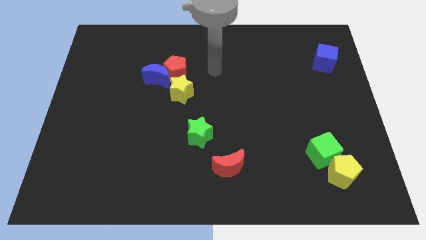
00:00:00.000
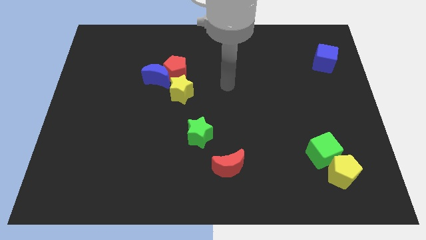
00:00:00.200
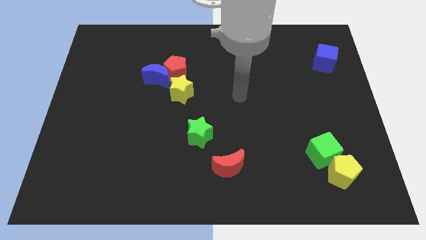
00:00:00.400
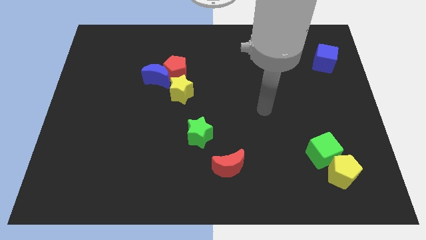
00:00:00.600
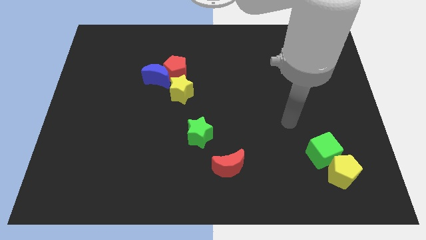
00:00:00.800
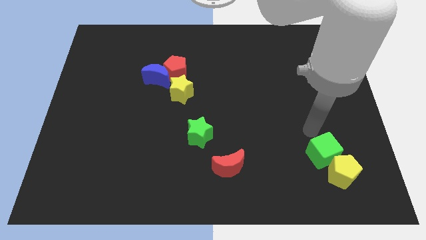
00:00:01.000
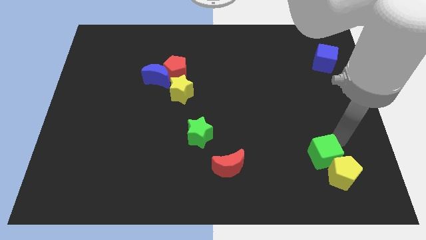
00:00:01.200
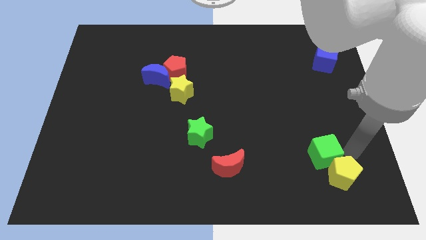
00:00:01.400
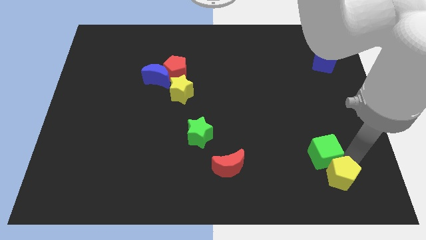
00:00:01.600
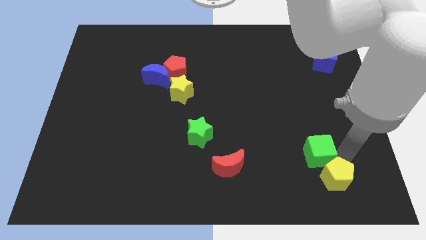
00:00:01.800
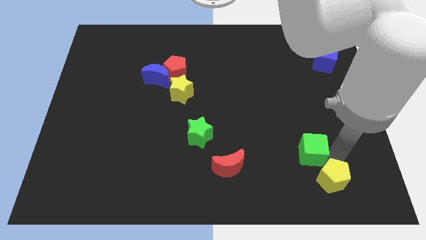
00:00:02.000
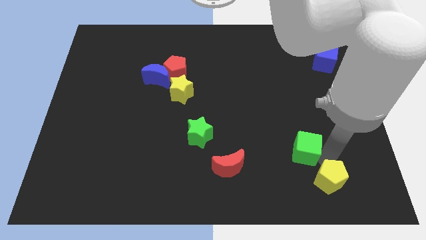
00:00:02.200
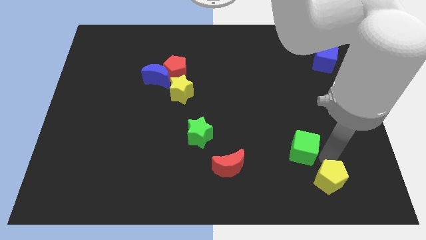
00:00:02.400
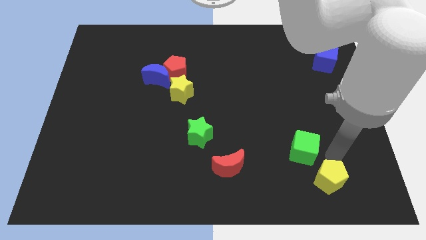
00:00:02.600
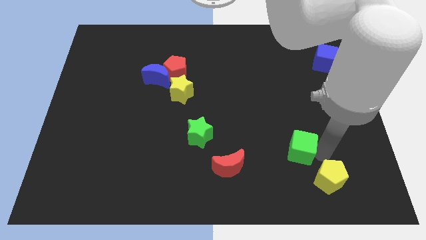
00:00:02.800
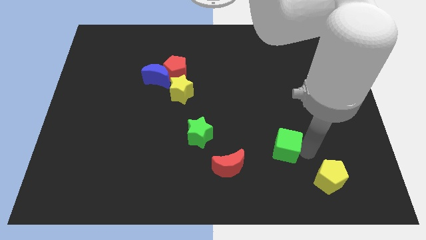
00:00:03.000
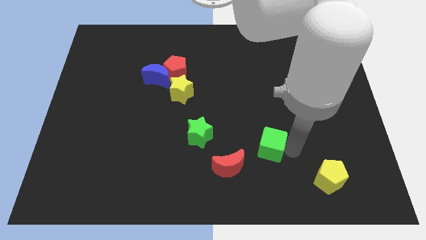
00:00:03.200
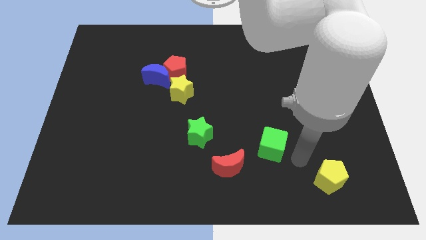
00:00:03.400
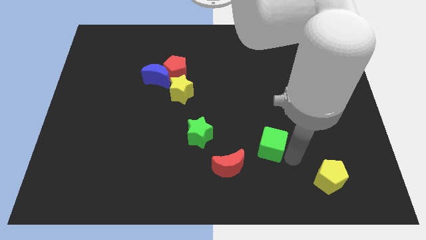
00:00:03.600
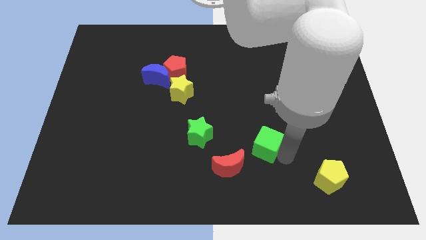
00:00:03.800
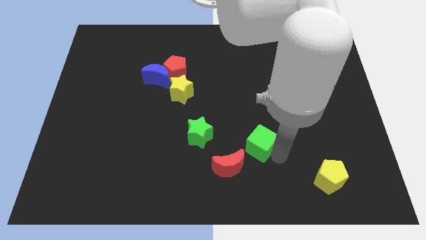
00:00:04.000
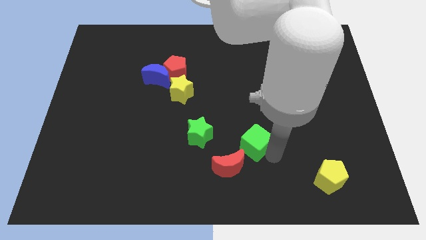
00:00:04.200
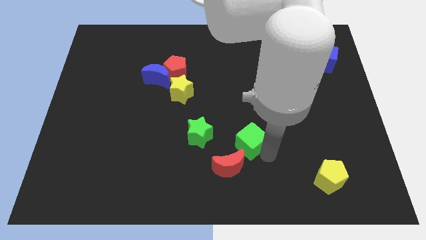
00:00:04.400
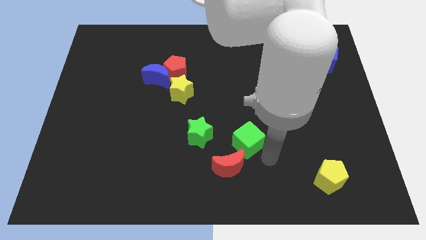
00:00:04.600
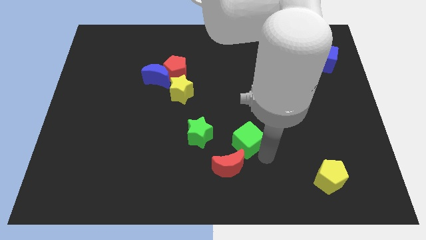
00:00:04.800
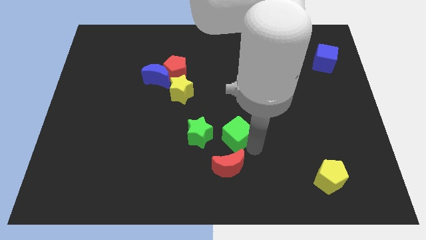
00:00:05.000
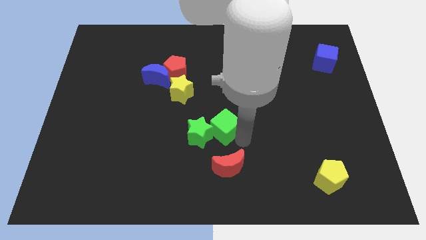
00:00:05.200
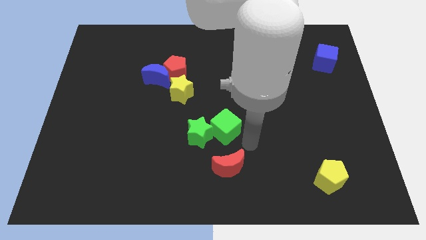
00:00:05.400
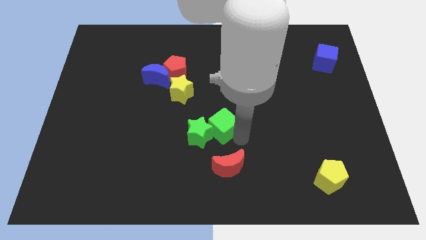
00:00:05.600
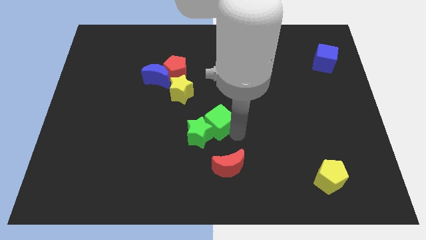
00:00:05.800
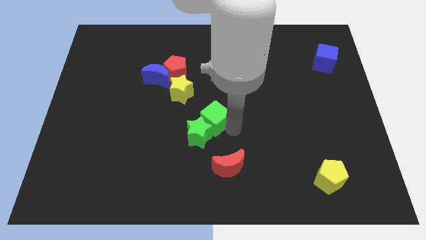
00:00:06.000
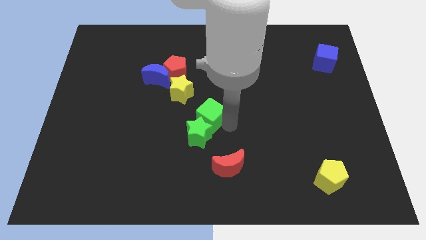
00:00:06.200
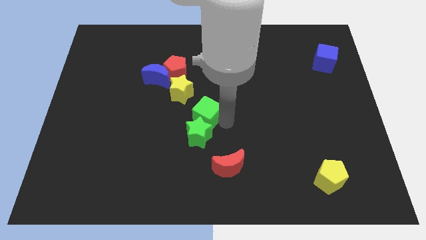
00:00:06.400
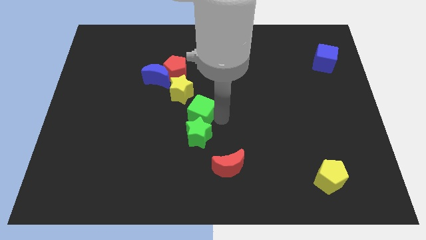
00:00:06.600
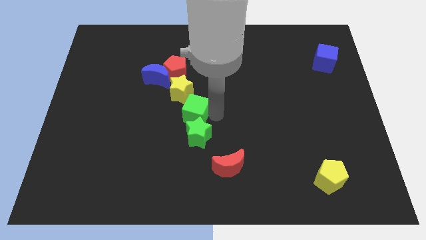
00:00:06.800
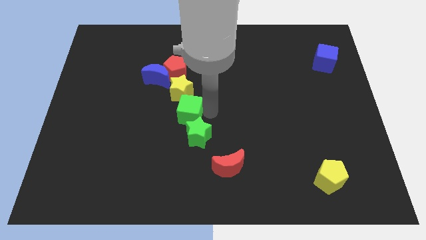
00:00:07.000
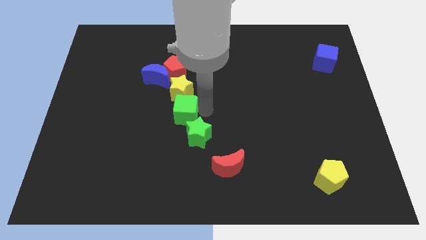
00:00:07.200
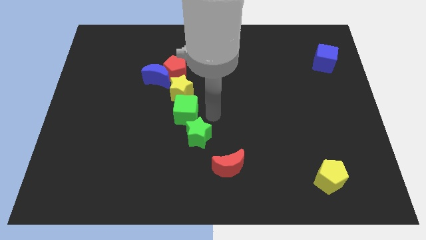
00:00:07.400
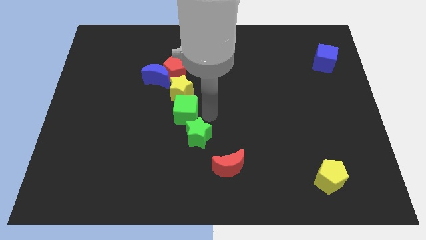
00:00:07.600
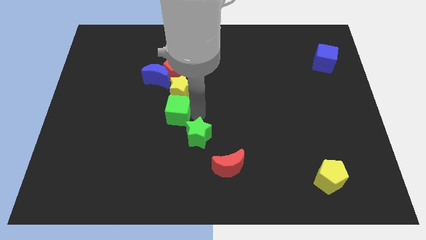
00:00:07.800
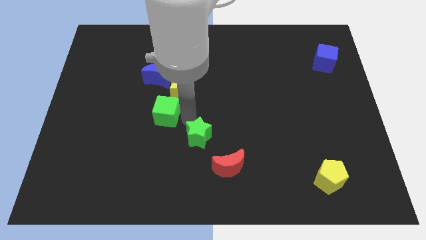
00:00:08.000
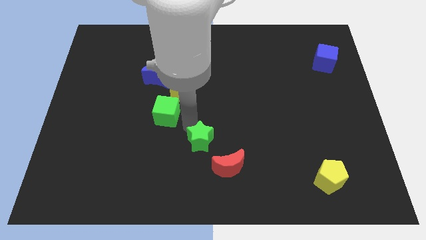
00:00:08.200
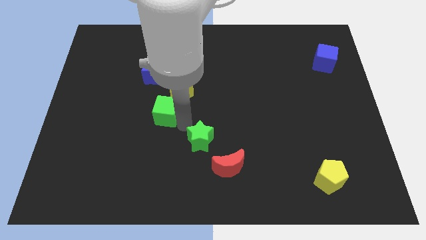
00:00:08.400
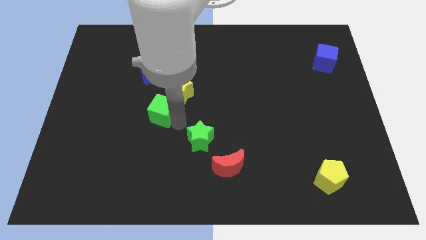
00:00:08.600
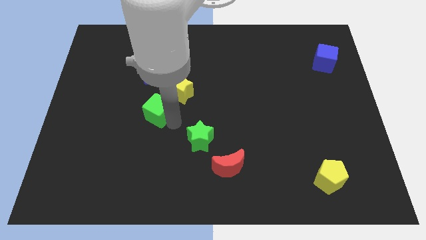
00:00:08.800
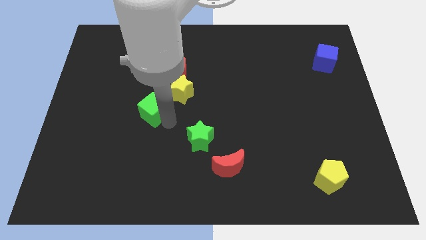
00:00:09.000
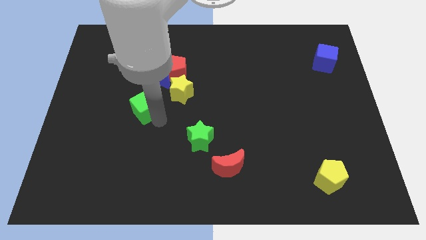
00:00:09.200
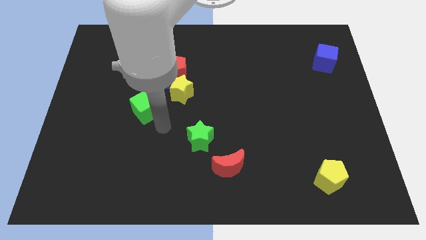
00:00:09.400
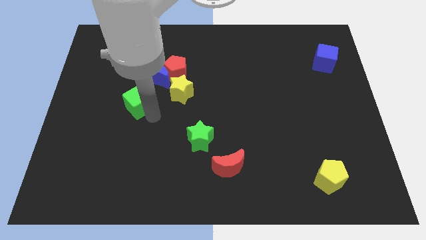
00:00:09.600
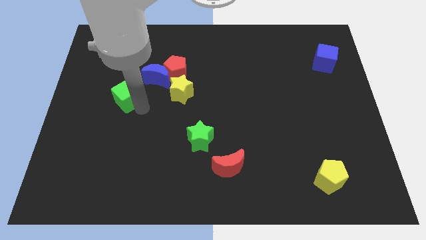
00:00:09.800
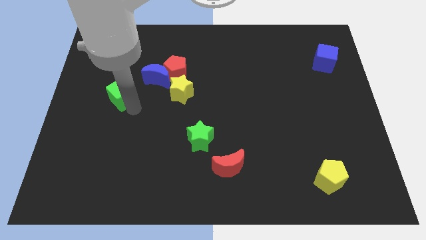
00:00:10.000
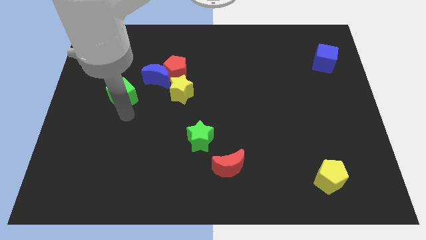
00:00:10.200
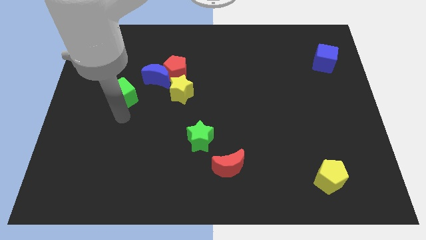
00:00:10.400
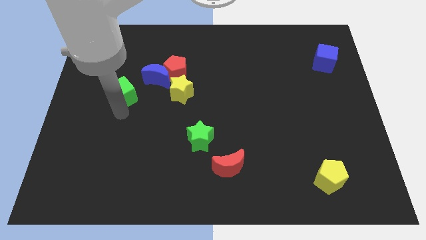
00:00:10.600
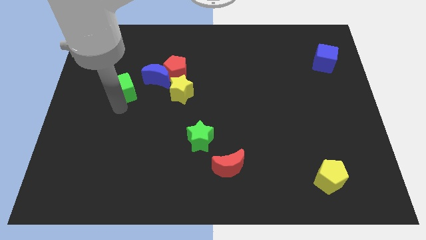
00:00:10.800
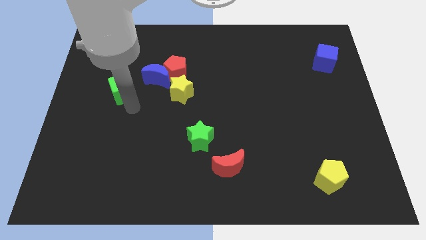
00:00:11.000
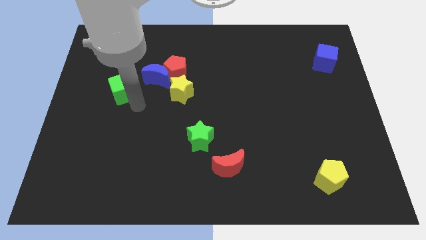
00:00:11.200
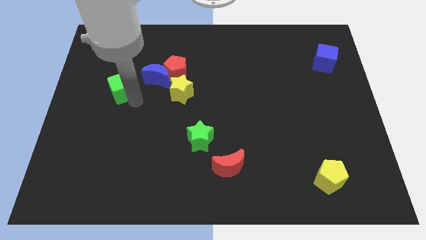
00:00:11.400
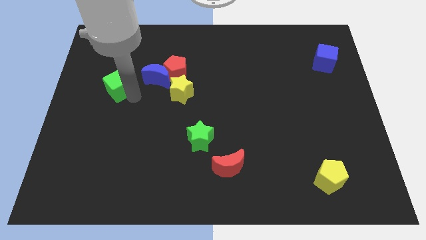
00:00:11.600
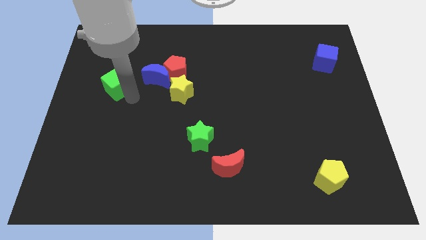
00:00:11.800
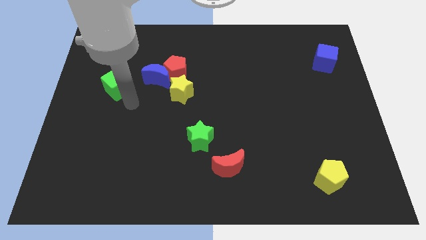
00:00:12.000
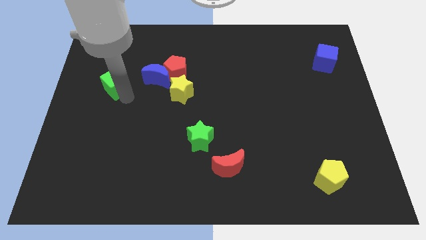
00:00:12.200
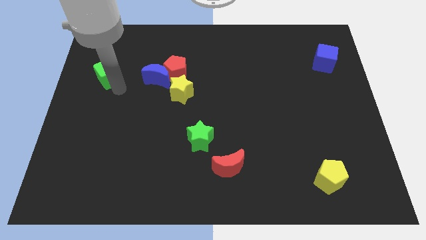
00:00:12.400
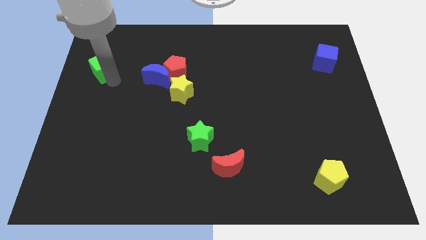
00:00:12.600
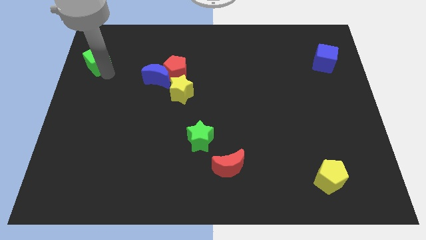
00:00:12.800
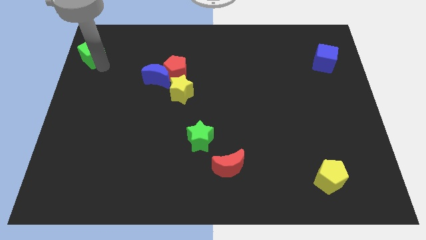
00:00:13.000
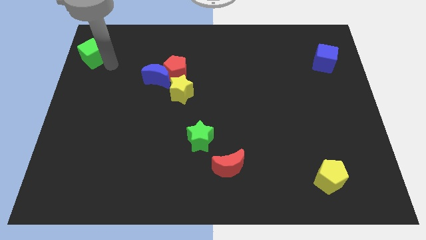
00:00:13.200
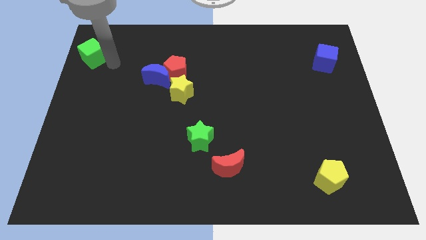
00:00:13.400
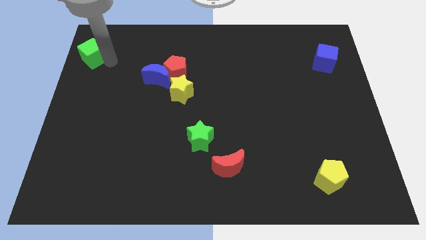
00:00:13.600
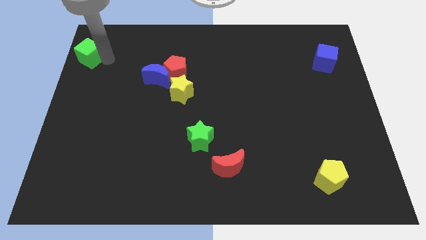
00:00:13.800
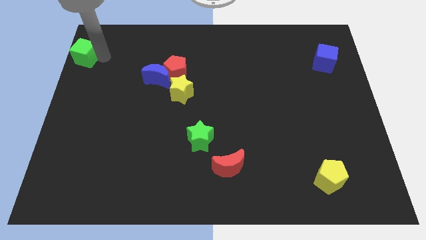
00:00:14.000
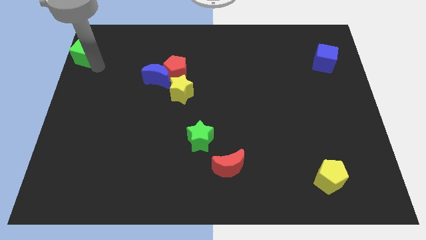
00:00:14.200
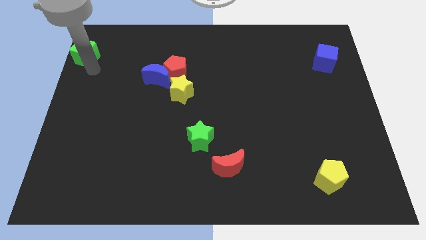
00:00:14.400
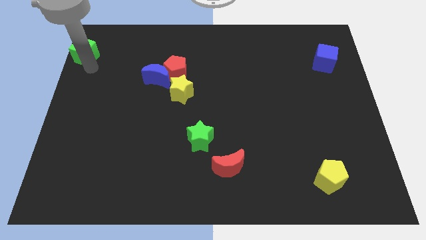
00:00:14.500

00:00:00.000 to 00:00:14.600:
slide the green cube to the top left of the board
